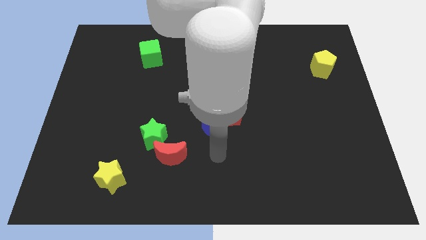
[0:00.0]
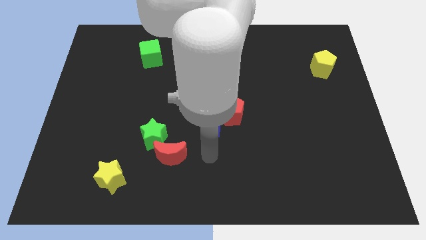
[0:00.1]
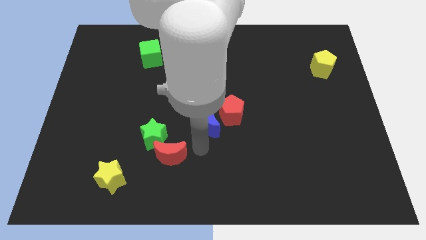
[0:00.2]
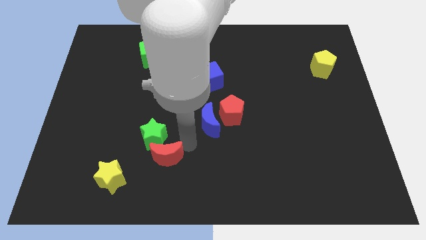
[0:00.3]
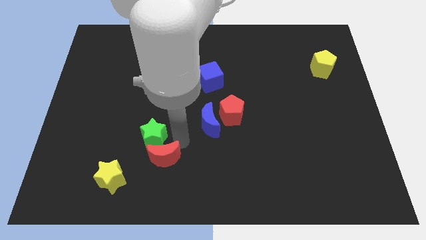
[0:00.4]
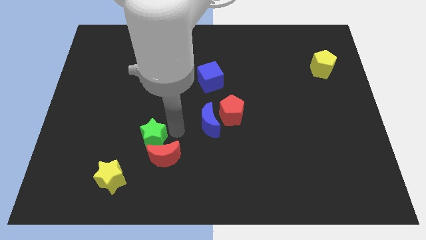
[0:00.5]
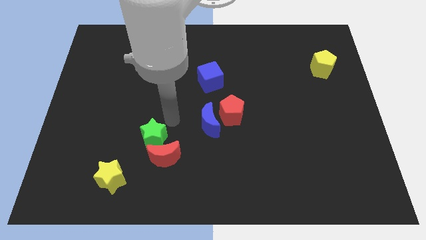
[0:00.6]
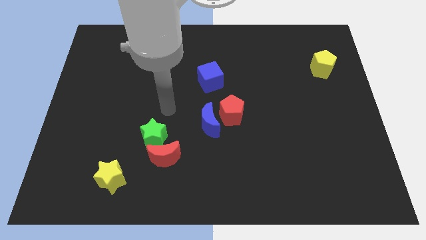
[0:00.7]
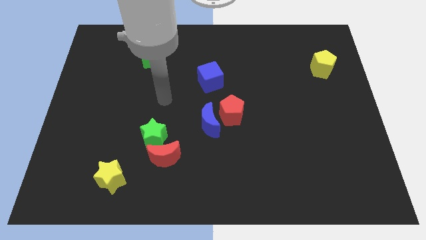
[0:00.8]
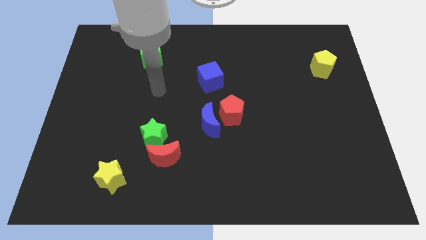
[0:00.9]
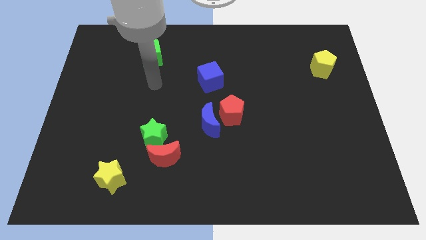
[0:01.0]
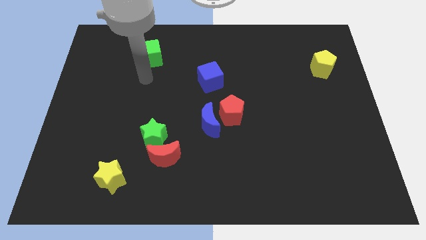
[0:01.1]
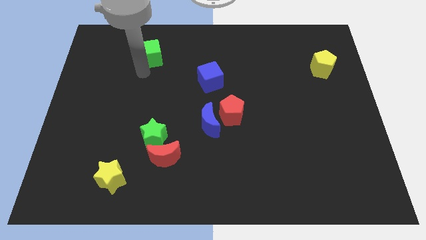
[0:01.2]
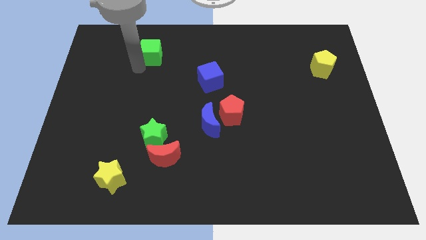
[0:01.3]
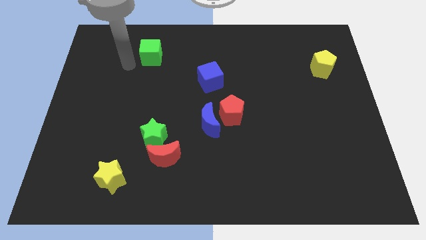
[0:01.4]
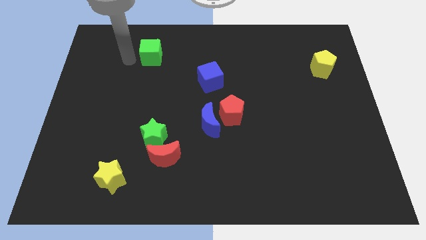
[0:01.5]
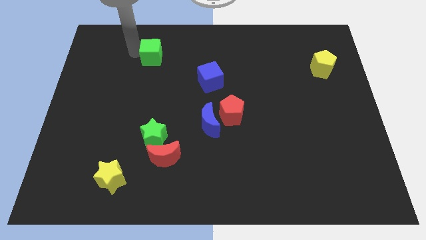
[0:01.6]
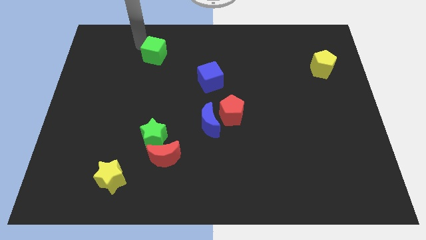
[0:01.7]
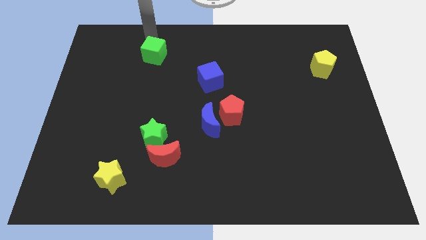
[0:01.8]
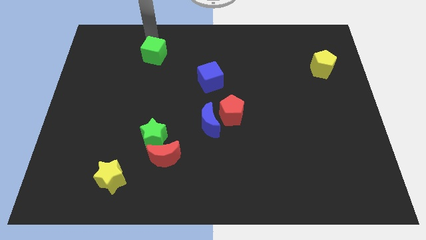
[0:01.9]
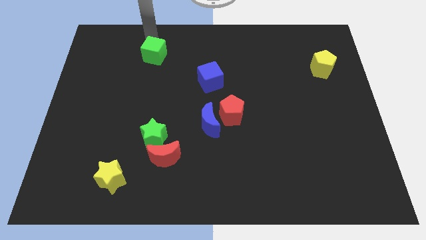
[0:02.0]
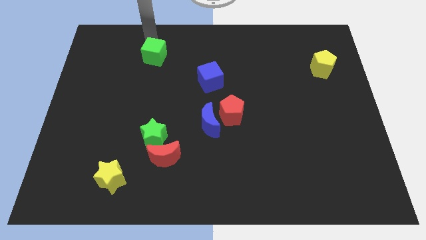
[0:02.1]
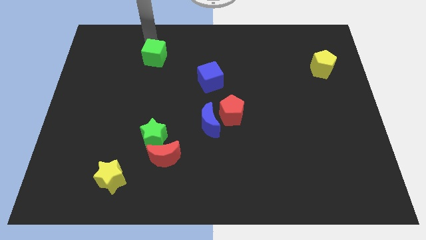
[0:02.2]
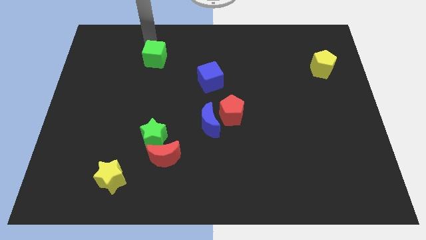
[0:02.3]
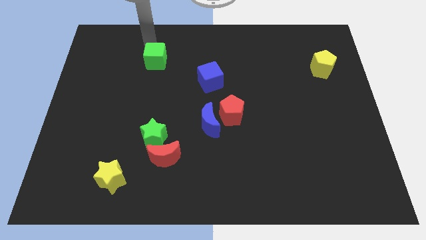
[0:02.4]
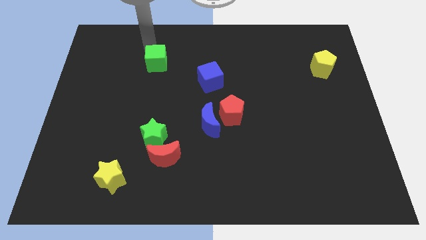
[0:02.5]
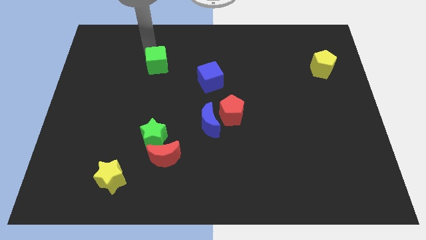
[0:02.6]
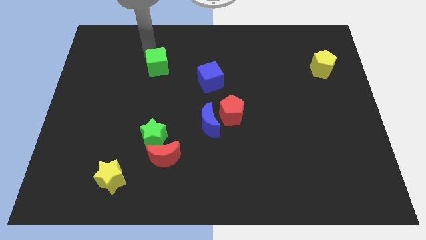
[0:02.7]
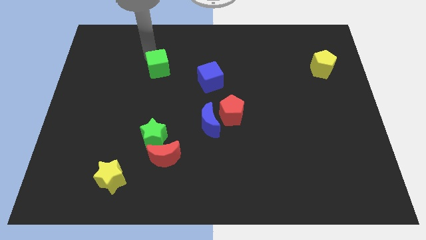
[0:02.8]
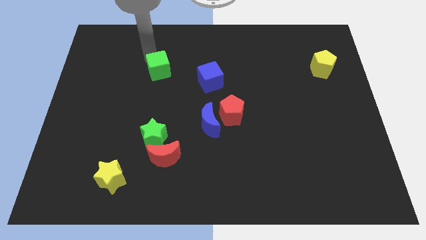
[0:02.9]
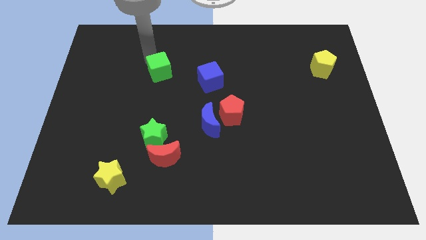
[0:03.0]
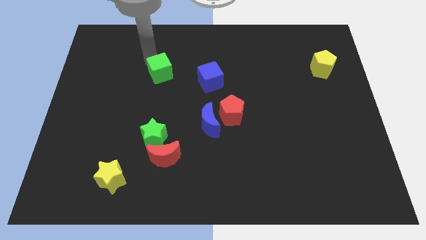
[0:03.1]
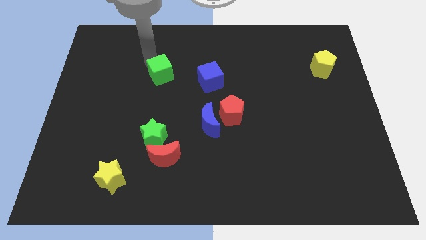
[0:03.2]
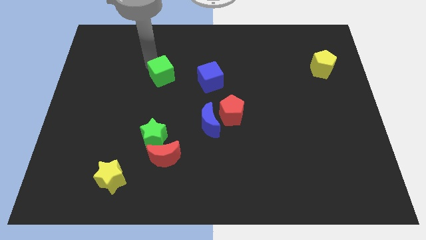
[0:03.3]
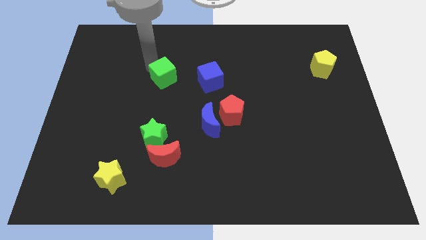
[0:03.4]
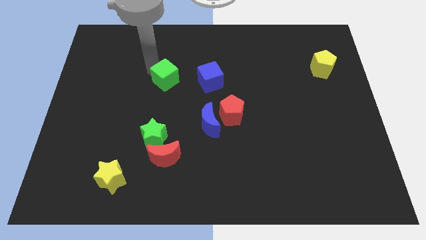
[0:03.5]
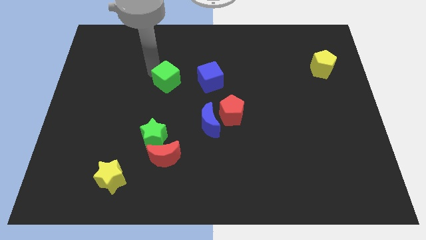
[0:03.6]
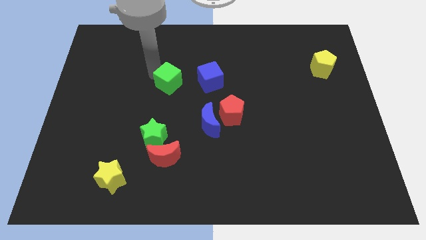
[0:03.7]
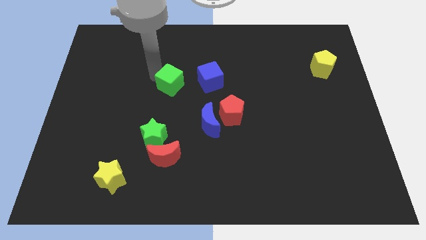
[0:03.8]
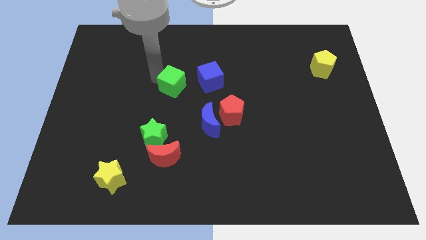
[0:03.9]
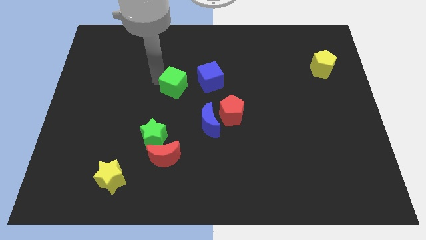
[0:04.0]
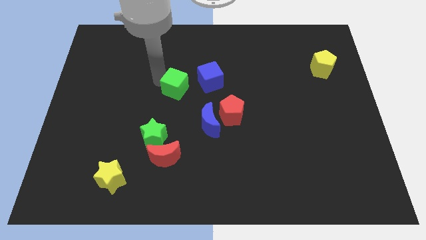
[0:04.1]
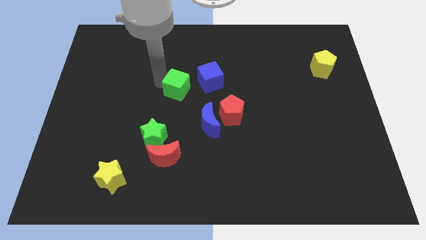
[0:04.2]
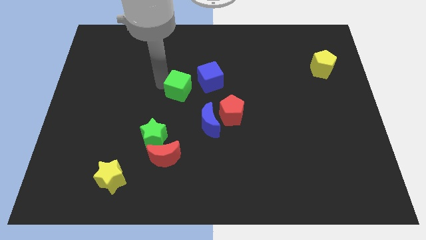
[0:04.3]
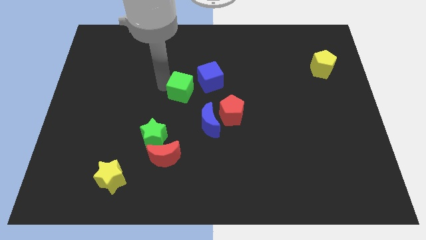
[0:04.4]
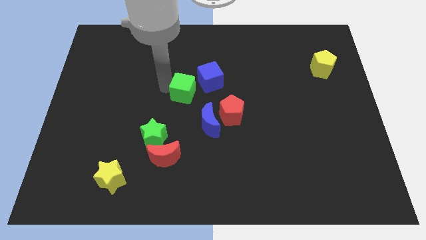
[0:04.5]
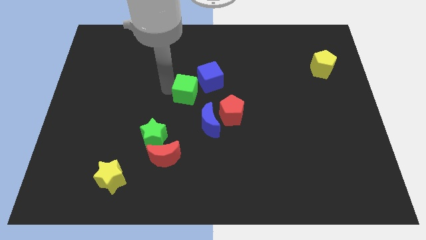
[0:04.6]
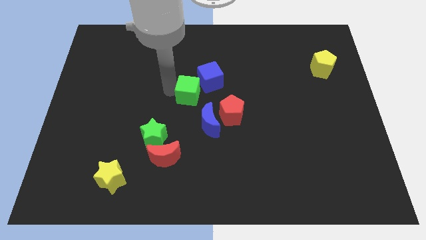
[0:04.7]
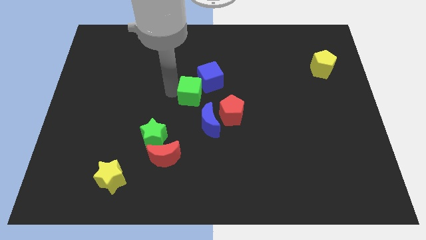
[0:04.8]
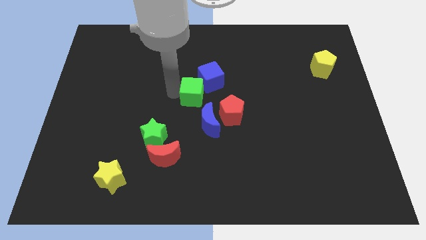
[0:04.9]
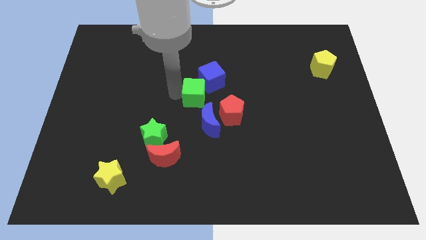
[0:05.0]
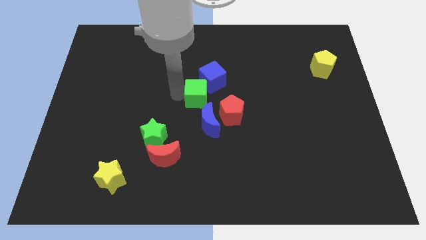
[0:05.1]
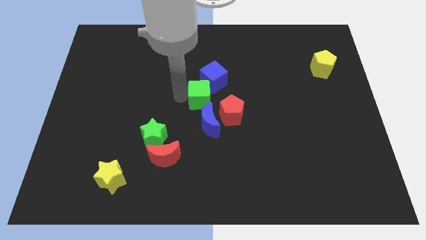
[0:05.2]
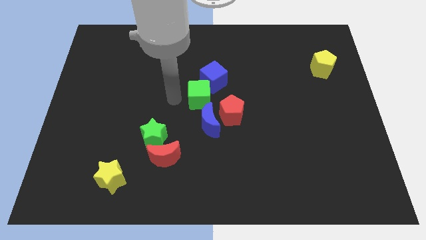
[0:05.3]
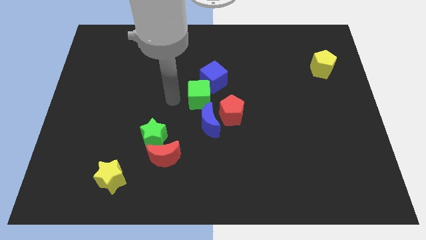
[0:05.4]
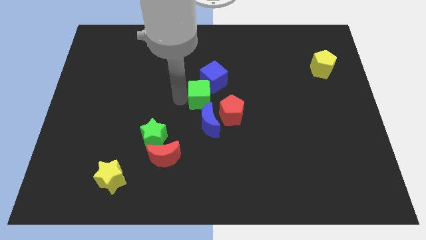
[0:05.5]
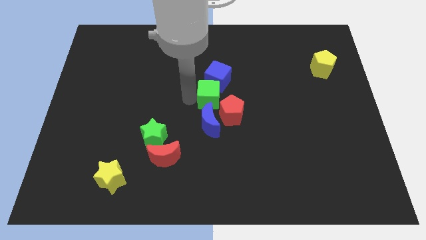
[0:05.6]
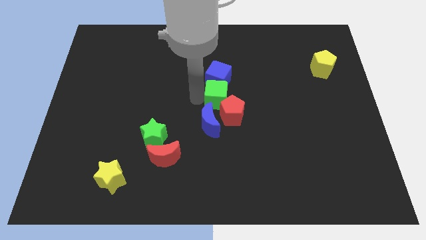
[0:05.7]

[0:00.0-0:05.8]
push the green cube to the bottom right of the blue cube
